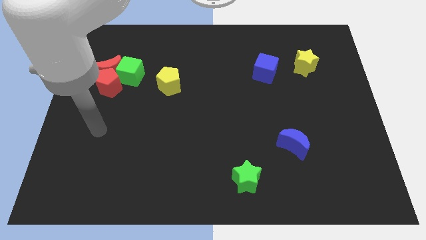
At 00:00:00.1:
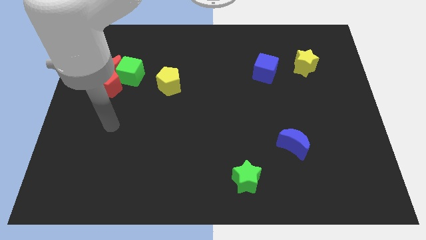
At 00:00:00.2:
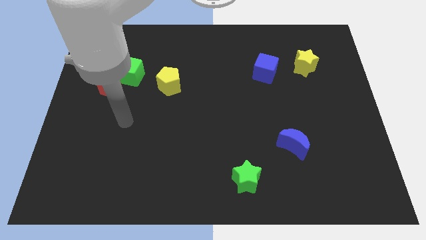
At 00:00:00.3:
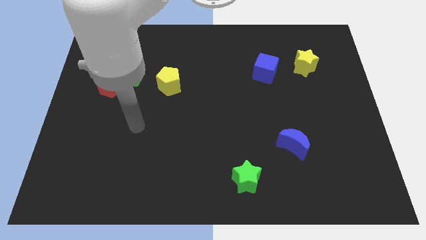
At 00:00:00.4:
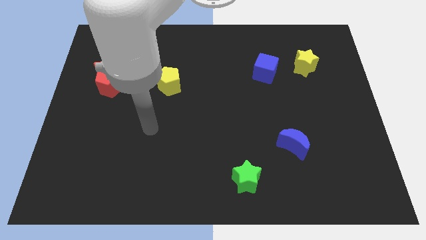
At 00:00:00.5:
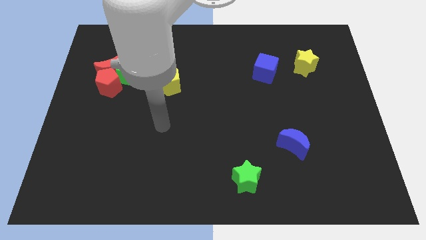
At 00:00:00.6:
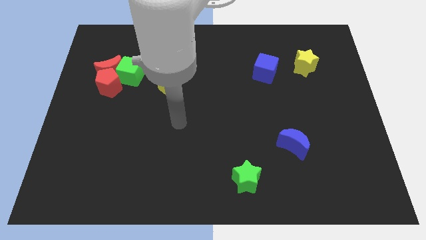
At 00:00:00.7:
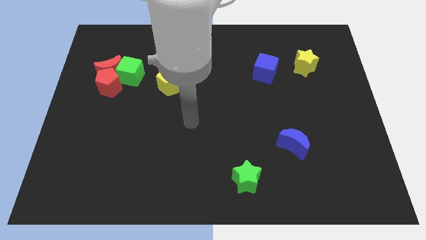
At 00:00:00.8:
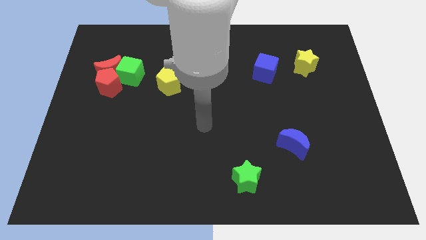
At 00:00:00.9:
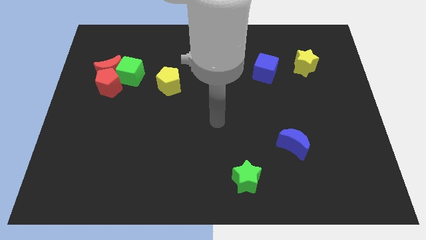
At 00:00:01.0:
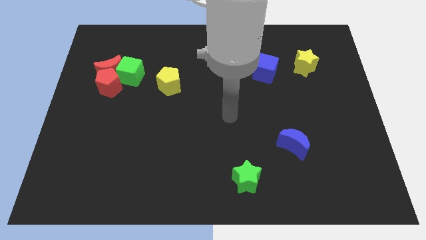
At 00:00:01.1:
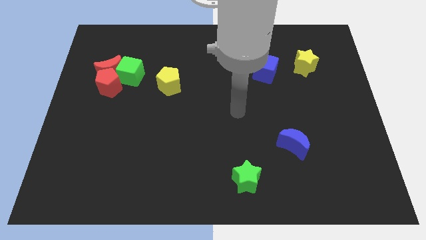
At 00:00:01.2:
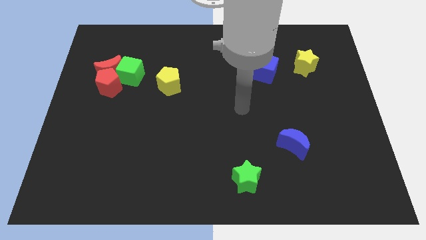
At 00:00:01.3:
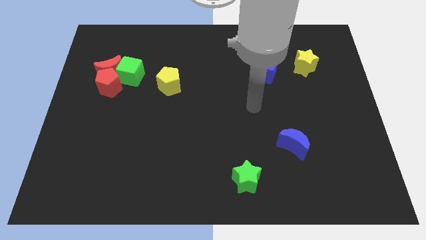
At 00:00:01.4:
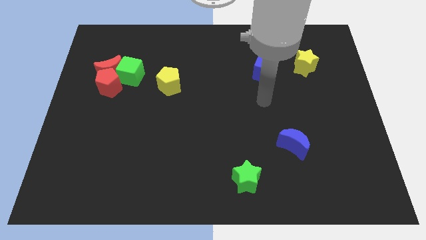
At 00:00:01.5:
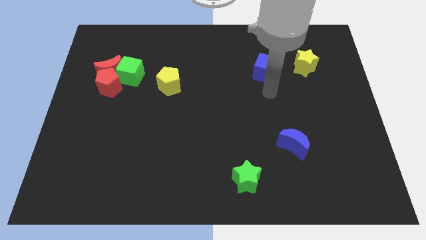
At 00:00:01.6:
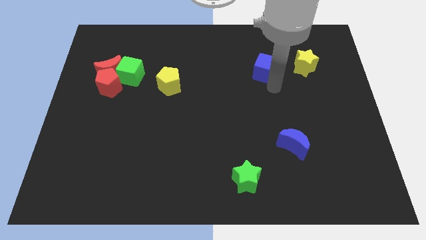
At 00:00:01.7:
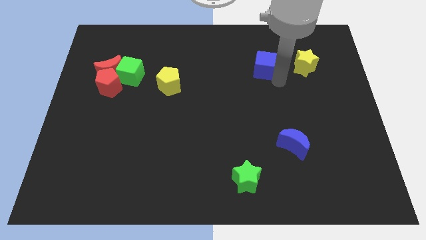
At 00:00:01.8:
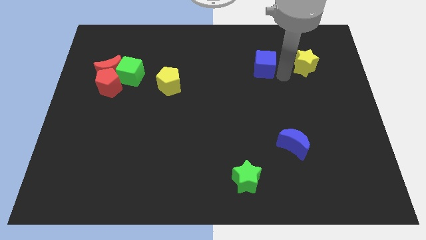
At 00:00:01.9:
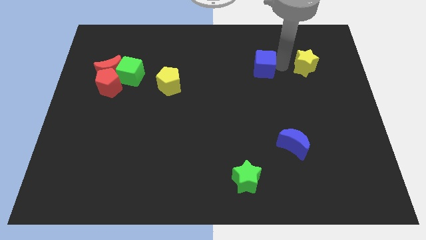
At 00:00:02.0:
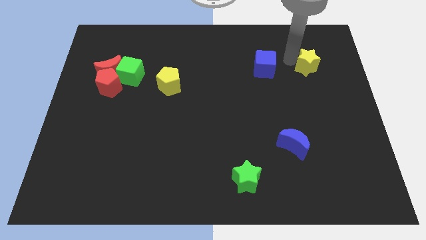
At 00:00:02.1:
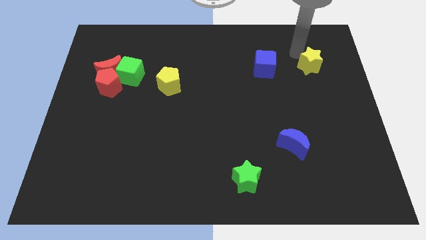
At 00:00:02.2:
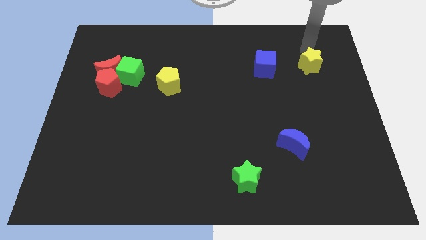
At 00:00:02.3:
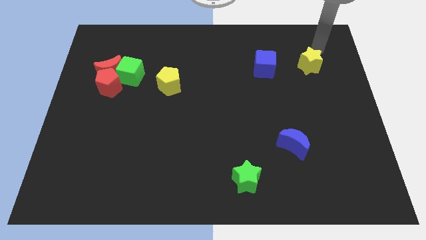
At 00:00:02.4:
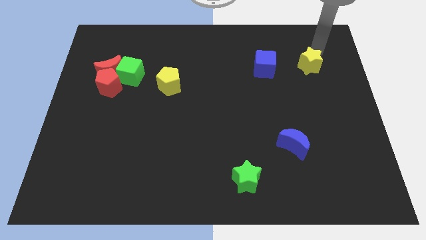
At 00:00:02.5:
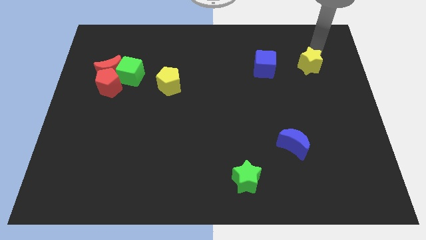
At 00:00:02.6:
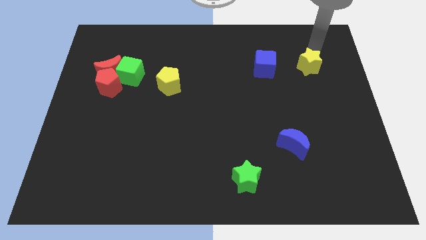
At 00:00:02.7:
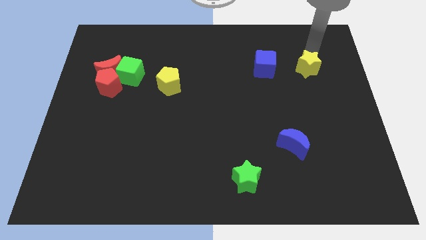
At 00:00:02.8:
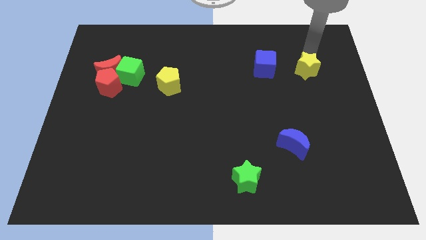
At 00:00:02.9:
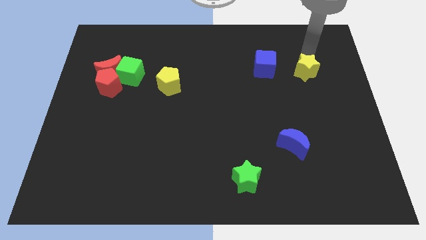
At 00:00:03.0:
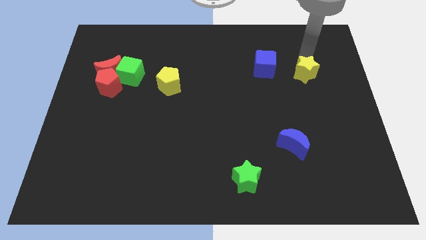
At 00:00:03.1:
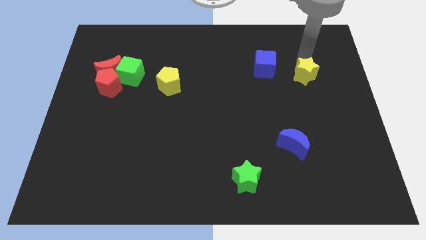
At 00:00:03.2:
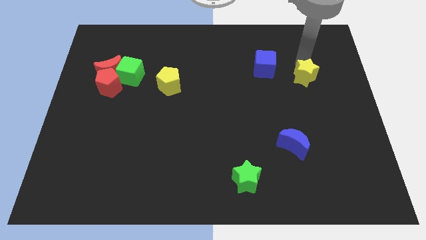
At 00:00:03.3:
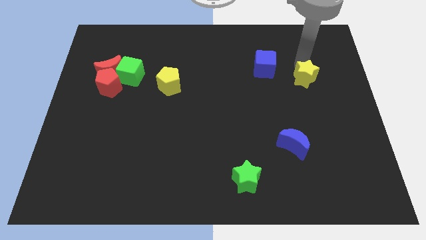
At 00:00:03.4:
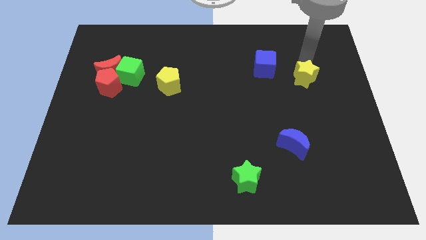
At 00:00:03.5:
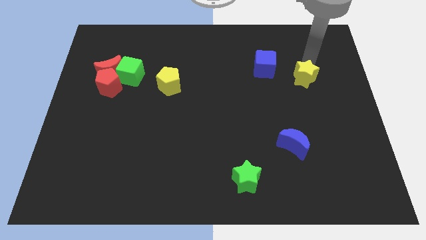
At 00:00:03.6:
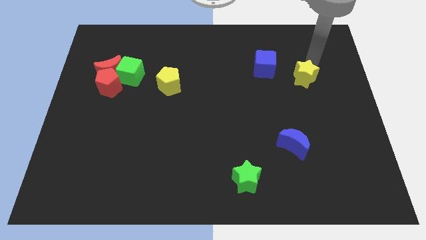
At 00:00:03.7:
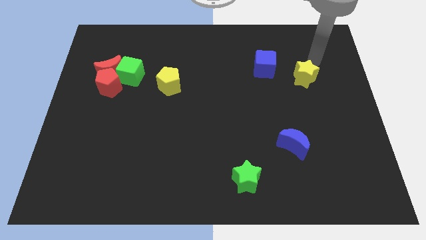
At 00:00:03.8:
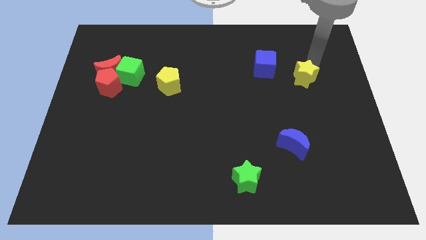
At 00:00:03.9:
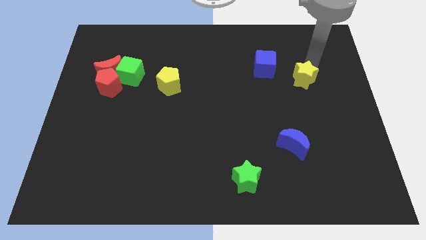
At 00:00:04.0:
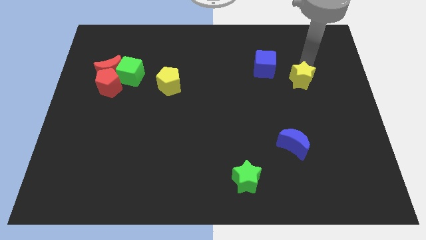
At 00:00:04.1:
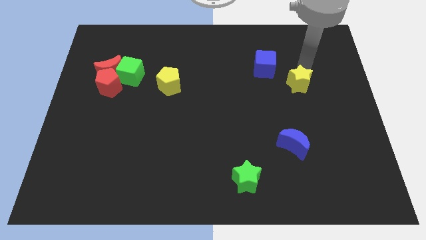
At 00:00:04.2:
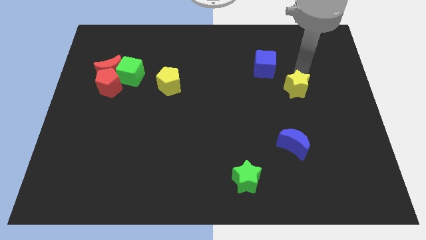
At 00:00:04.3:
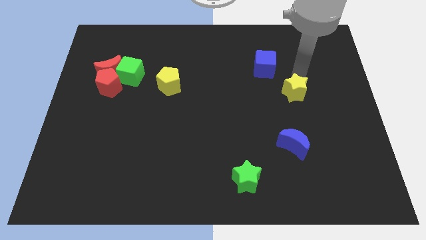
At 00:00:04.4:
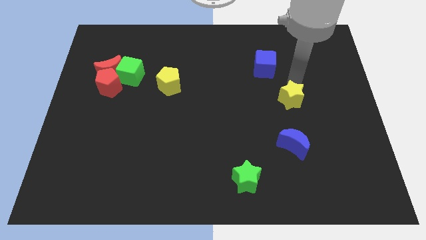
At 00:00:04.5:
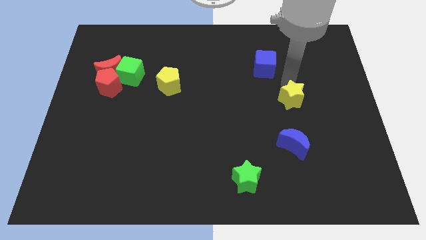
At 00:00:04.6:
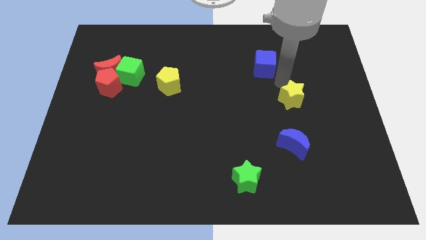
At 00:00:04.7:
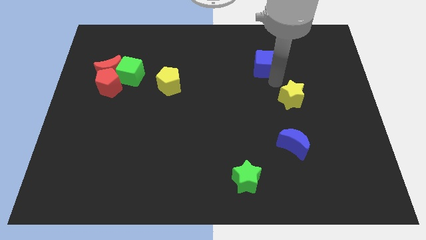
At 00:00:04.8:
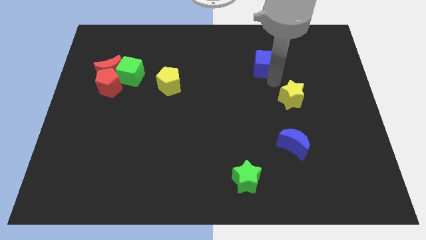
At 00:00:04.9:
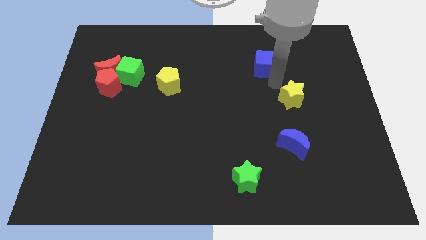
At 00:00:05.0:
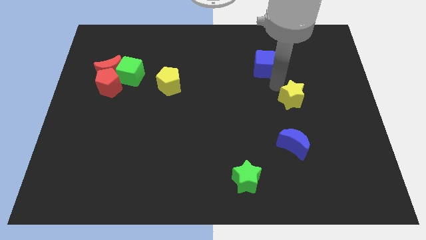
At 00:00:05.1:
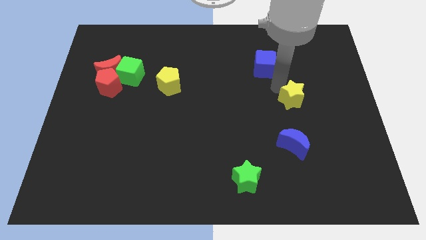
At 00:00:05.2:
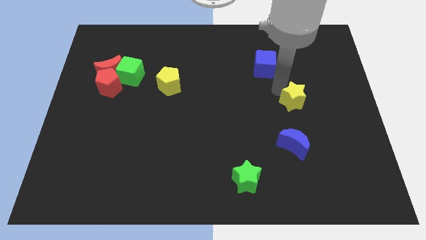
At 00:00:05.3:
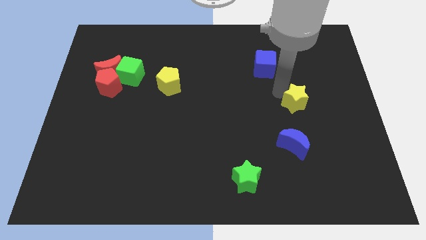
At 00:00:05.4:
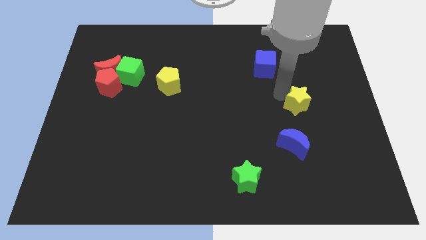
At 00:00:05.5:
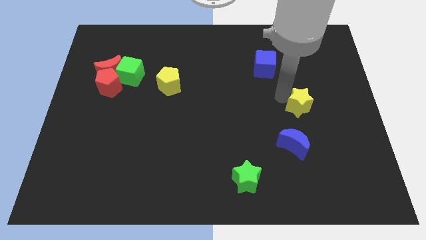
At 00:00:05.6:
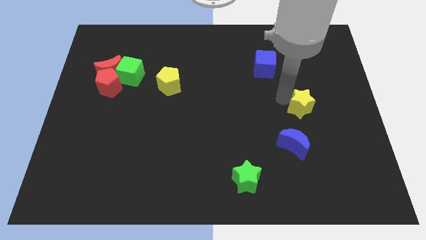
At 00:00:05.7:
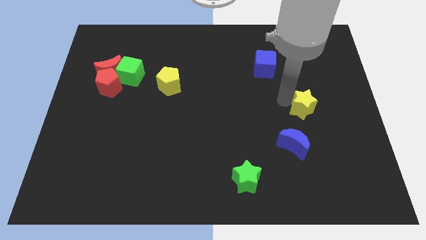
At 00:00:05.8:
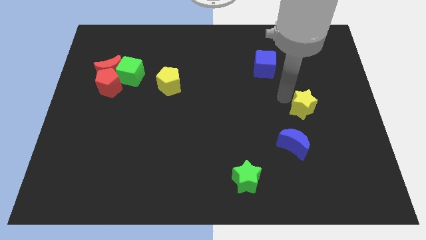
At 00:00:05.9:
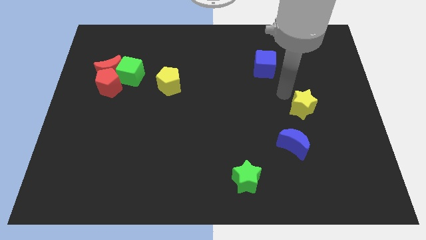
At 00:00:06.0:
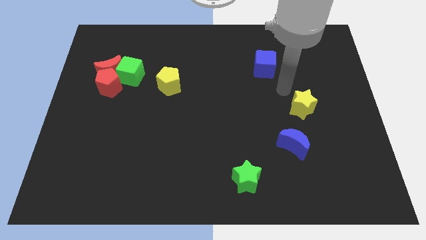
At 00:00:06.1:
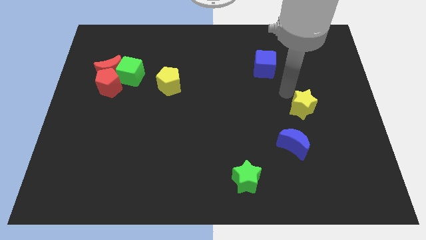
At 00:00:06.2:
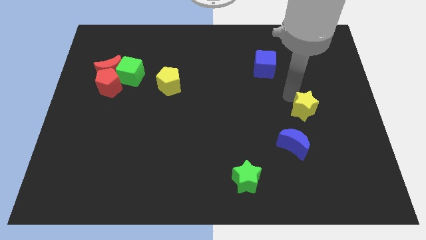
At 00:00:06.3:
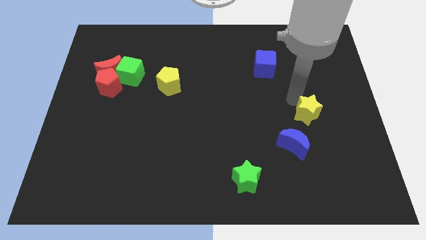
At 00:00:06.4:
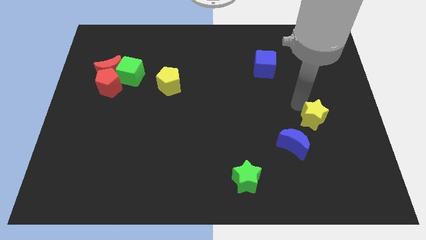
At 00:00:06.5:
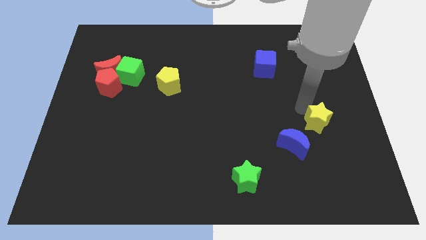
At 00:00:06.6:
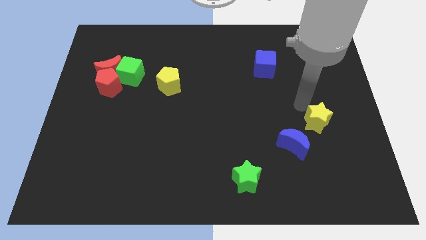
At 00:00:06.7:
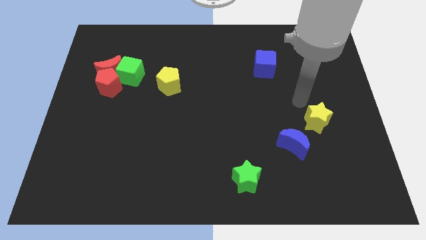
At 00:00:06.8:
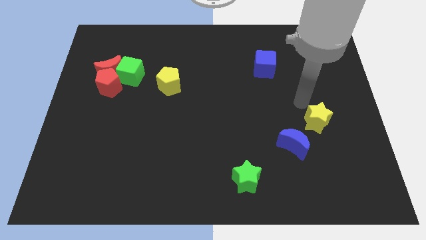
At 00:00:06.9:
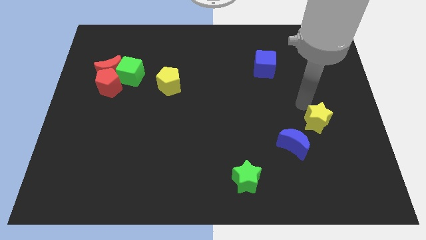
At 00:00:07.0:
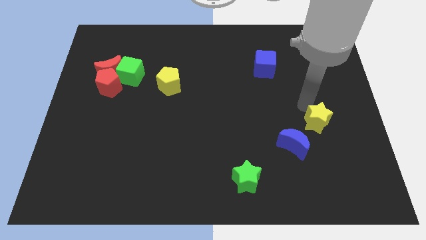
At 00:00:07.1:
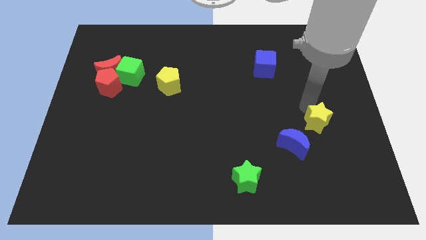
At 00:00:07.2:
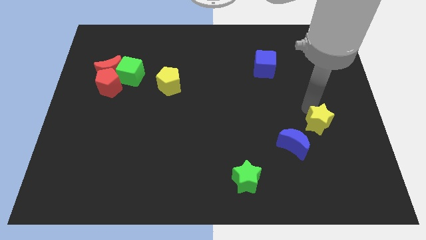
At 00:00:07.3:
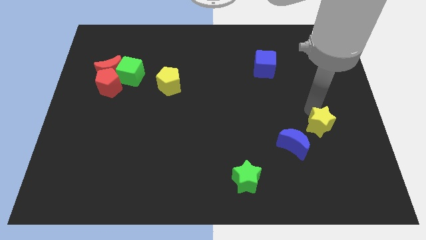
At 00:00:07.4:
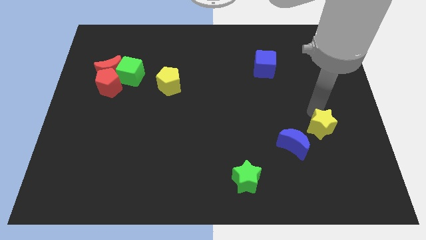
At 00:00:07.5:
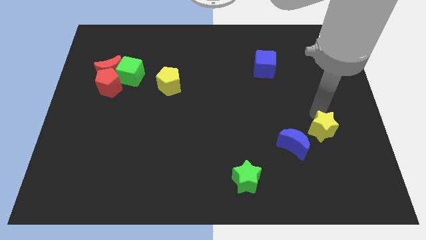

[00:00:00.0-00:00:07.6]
move the yellow star downwards
